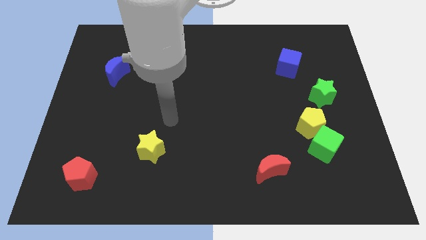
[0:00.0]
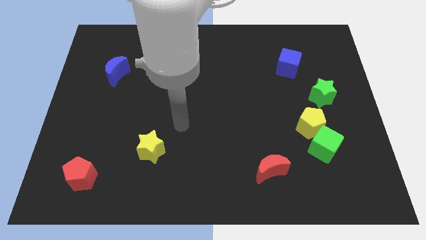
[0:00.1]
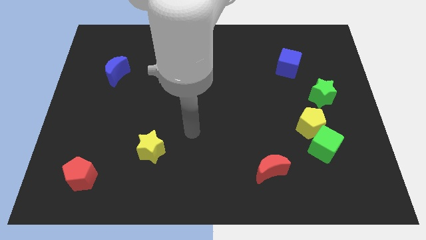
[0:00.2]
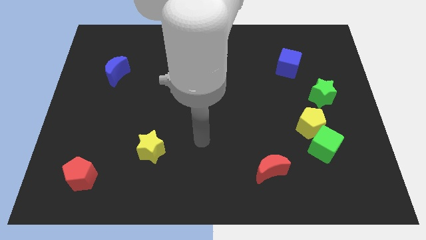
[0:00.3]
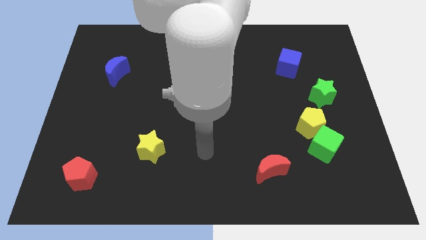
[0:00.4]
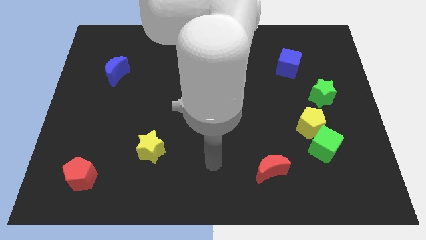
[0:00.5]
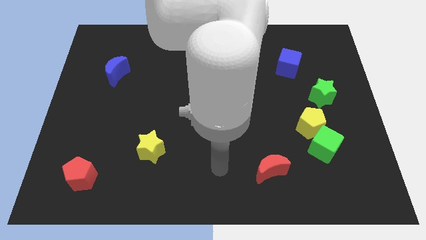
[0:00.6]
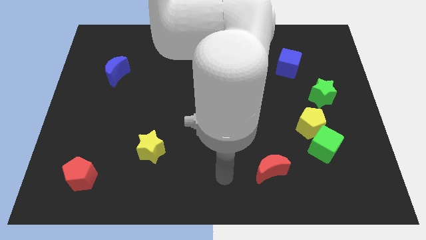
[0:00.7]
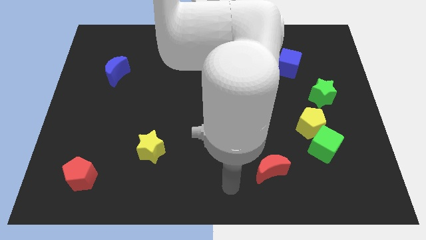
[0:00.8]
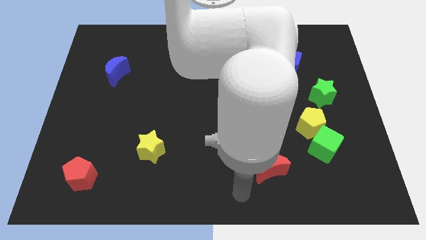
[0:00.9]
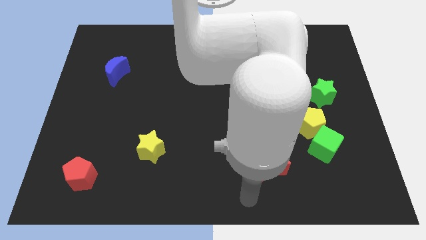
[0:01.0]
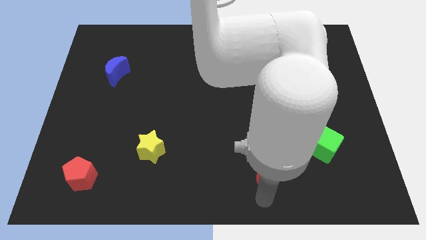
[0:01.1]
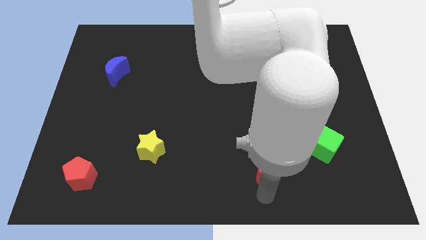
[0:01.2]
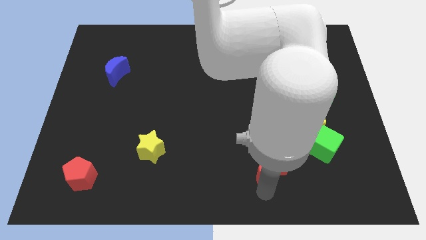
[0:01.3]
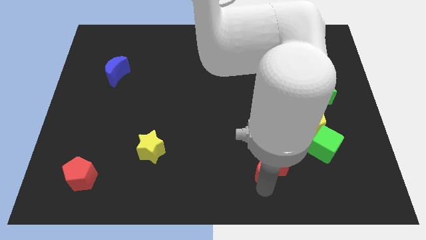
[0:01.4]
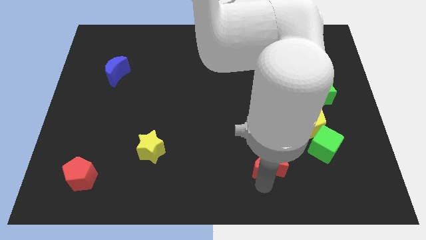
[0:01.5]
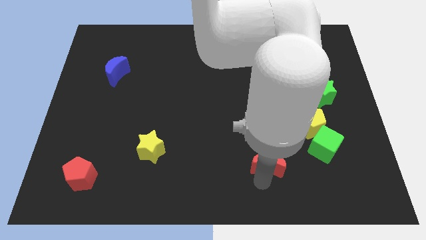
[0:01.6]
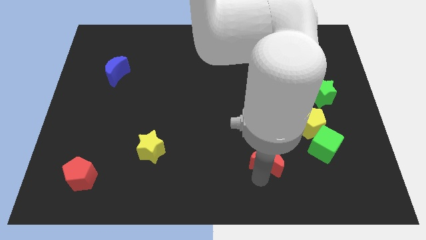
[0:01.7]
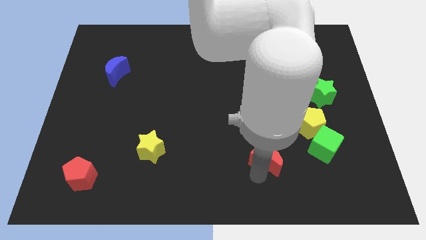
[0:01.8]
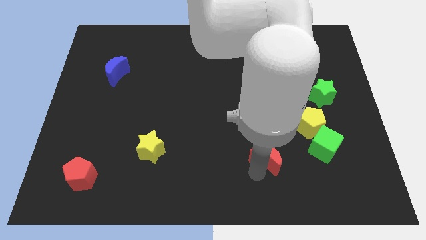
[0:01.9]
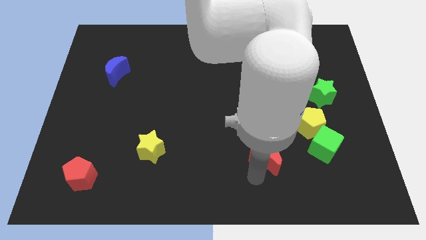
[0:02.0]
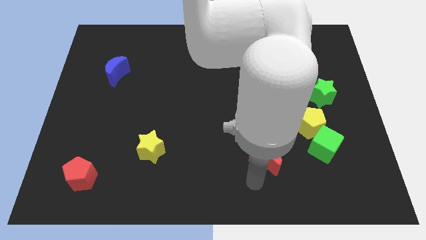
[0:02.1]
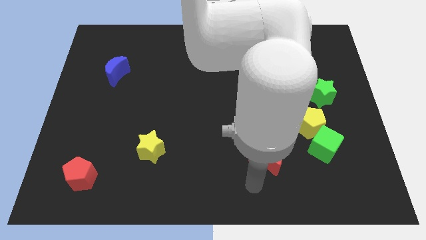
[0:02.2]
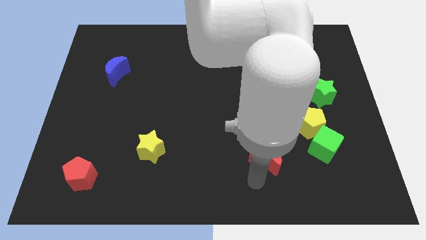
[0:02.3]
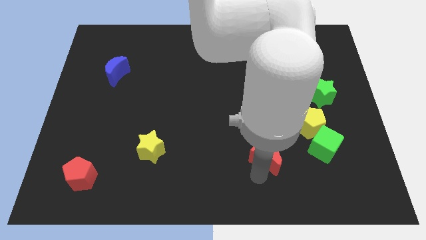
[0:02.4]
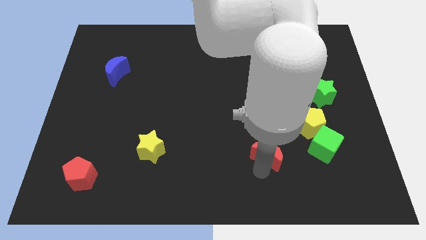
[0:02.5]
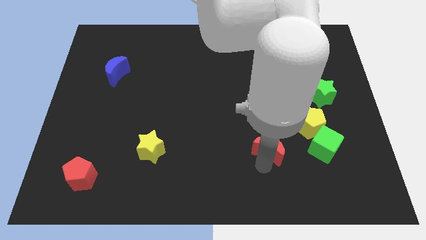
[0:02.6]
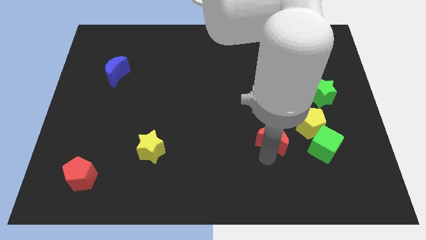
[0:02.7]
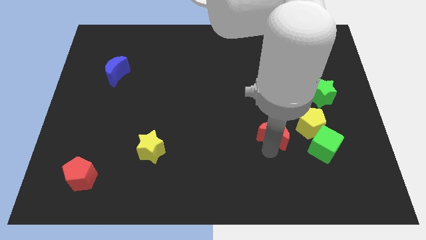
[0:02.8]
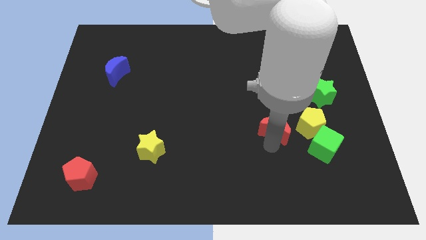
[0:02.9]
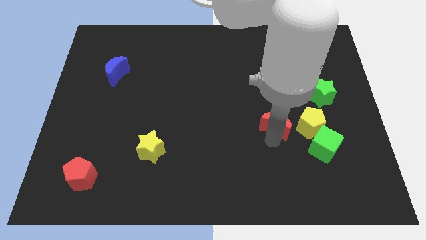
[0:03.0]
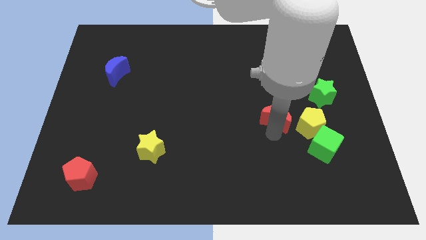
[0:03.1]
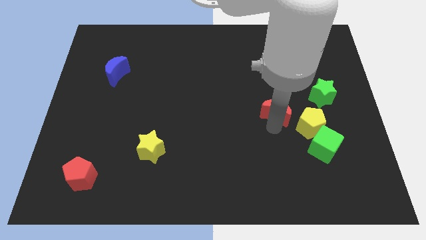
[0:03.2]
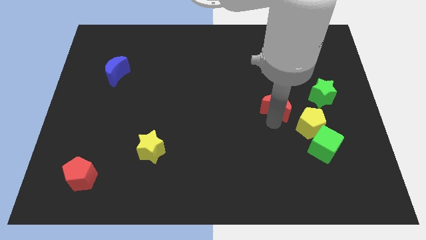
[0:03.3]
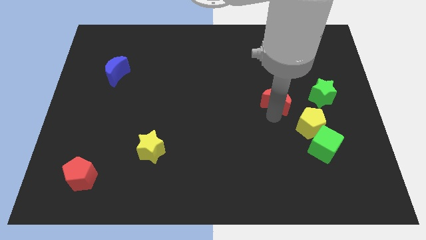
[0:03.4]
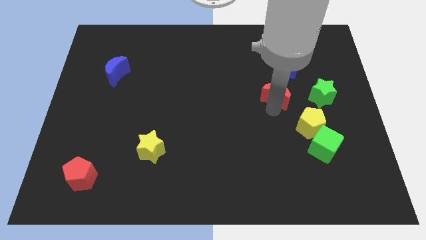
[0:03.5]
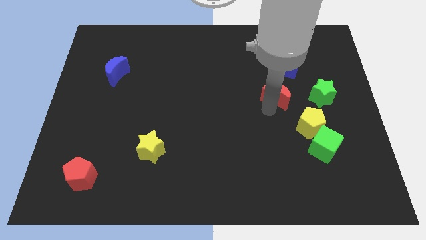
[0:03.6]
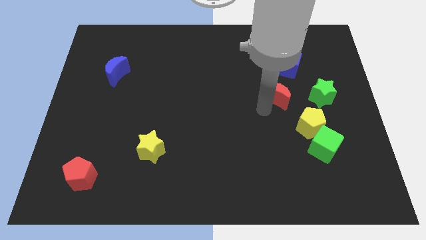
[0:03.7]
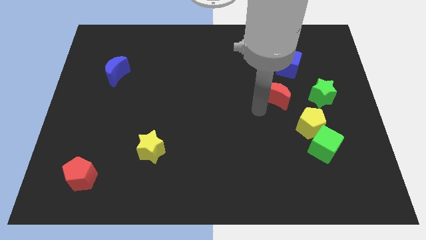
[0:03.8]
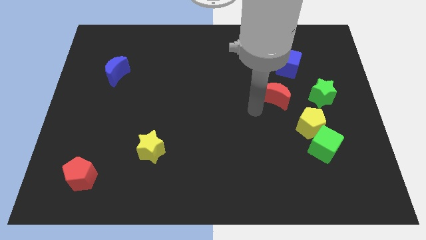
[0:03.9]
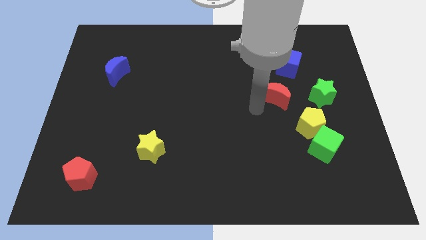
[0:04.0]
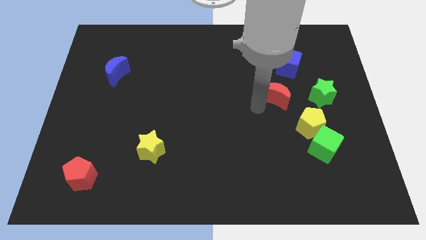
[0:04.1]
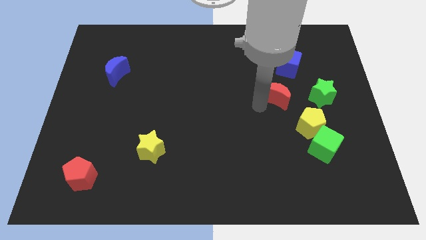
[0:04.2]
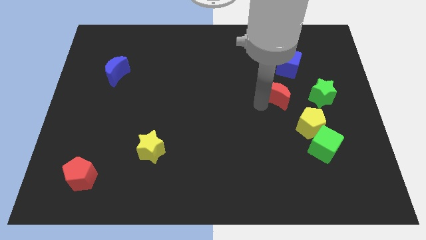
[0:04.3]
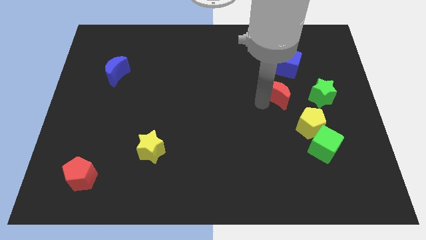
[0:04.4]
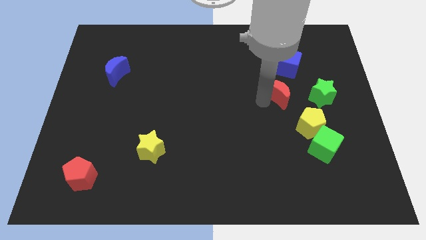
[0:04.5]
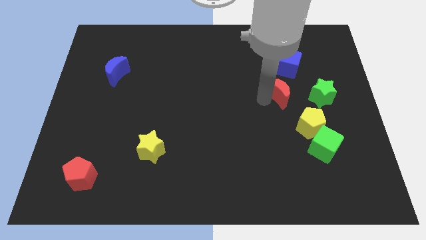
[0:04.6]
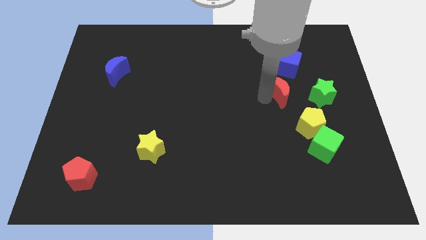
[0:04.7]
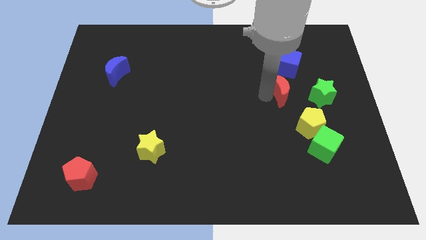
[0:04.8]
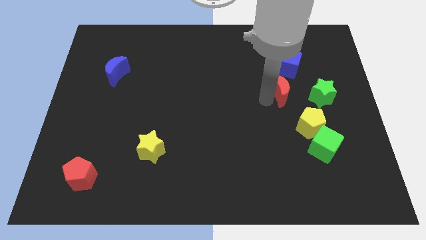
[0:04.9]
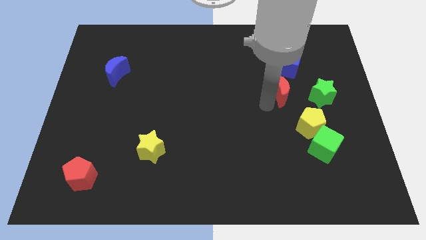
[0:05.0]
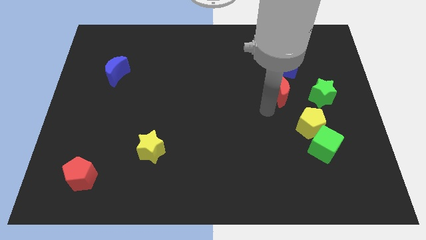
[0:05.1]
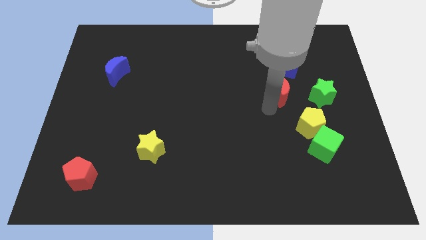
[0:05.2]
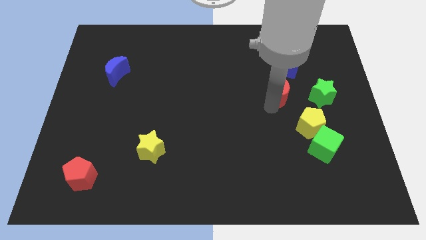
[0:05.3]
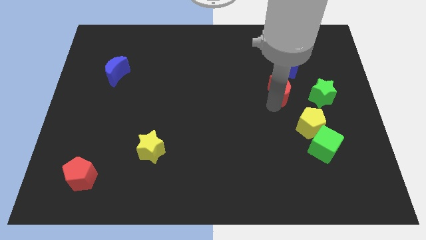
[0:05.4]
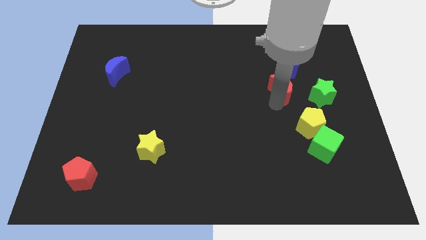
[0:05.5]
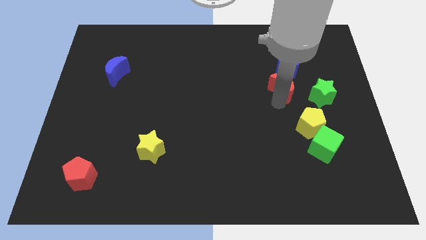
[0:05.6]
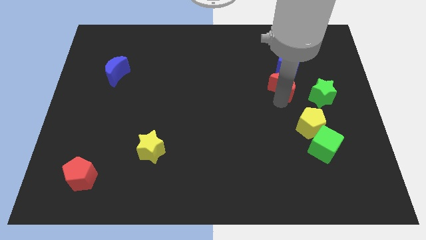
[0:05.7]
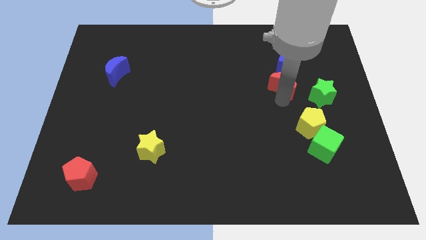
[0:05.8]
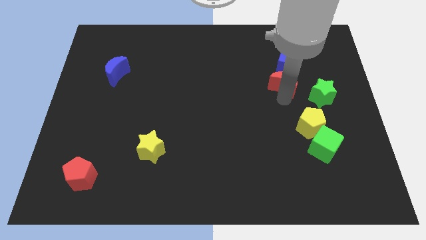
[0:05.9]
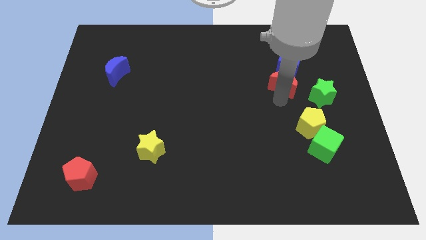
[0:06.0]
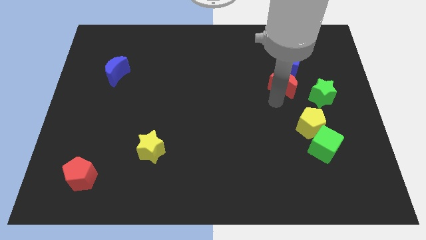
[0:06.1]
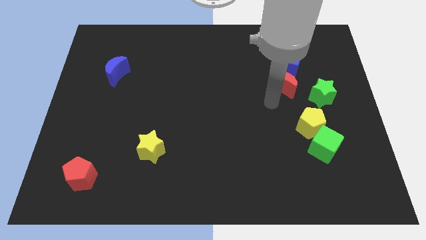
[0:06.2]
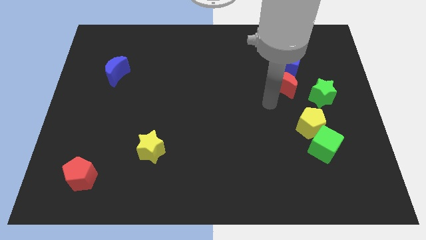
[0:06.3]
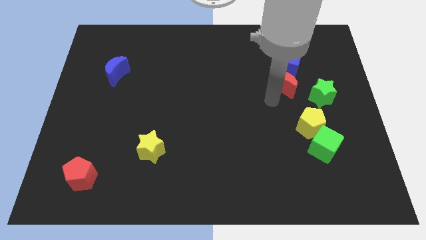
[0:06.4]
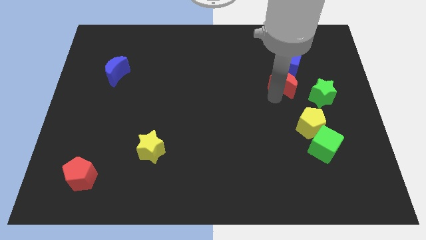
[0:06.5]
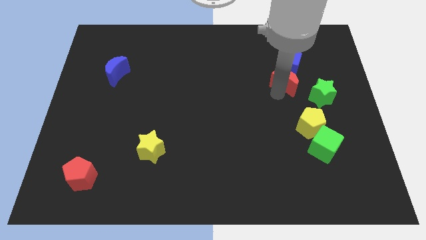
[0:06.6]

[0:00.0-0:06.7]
move the red moon close to the blue cube

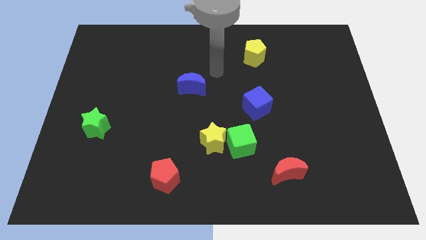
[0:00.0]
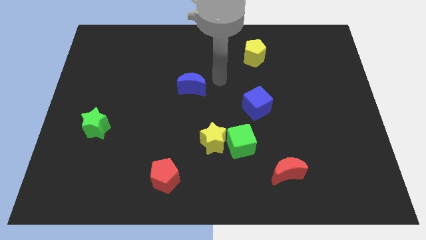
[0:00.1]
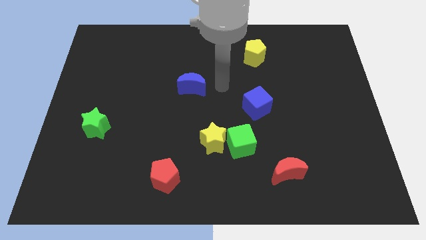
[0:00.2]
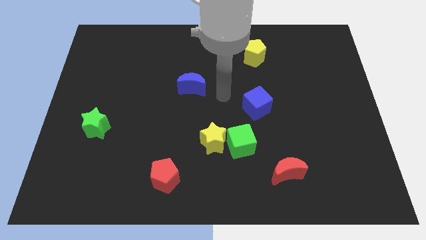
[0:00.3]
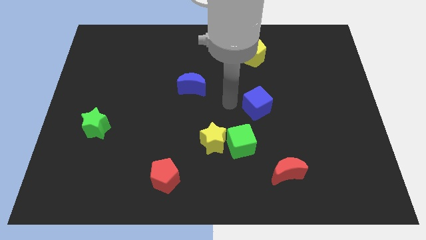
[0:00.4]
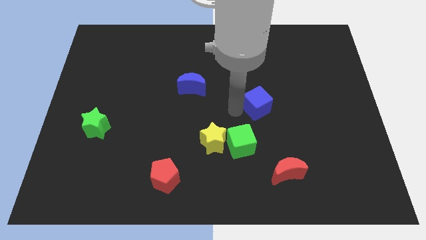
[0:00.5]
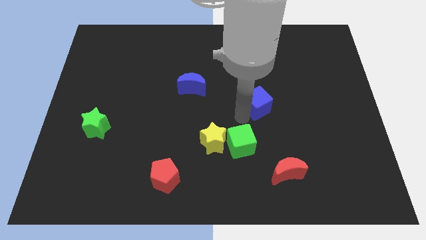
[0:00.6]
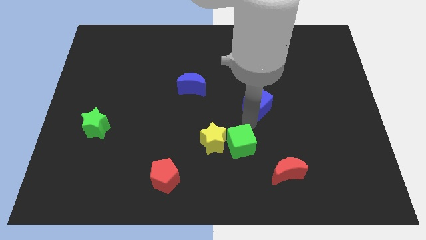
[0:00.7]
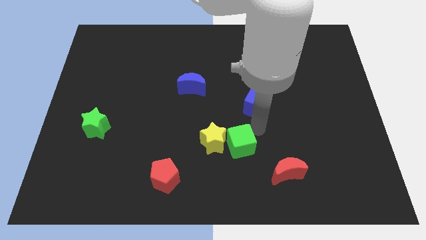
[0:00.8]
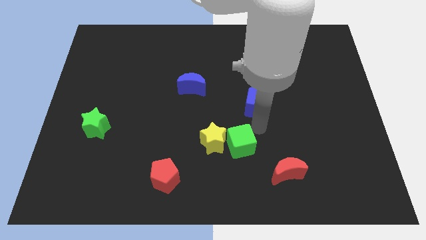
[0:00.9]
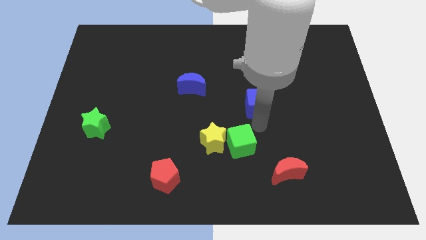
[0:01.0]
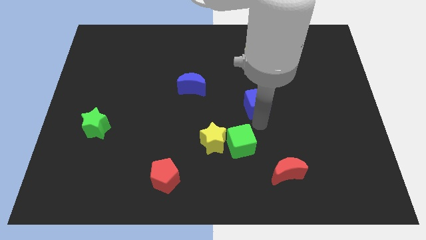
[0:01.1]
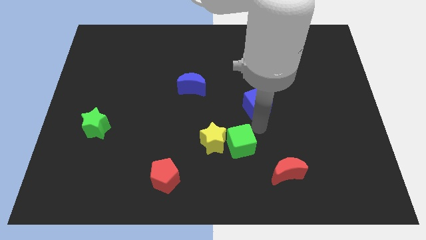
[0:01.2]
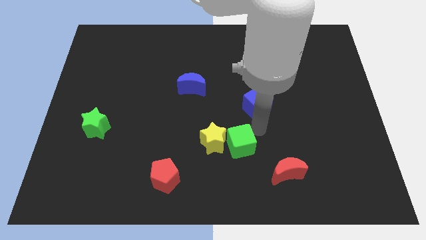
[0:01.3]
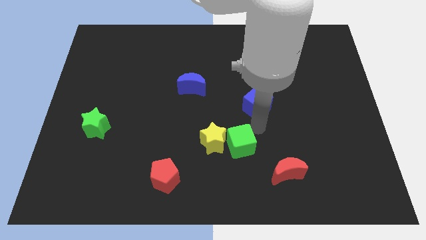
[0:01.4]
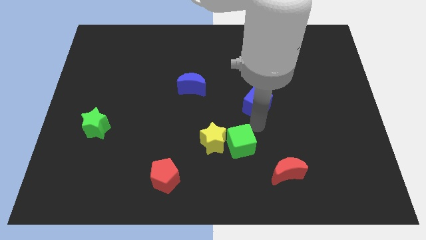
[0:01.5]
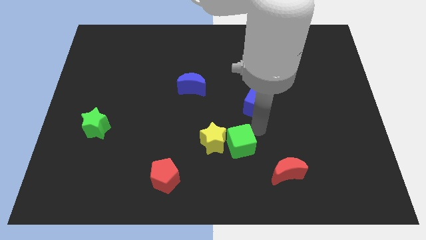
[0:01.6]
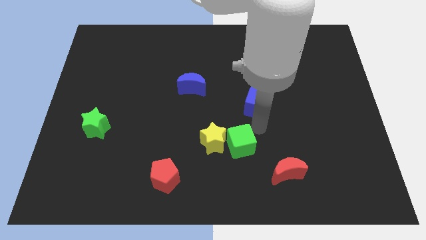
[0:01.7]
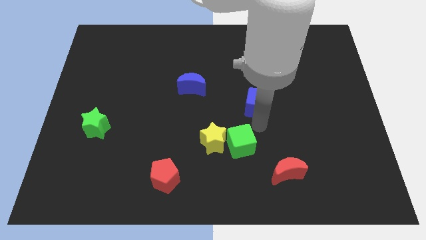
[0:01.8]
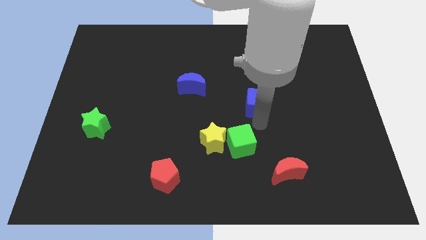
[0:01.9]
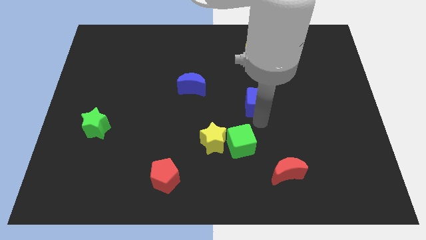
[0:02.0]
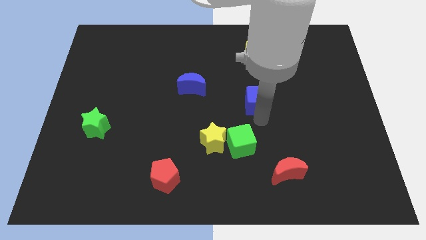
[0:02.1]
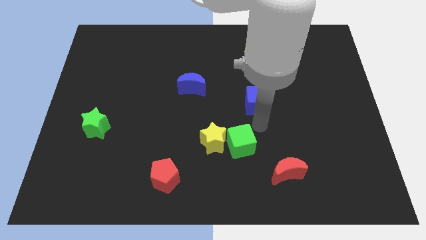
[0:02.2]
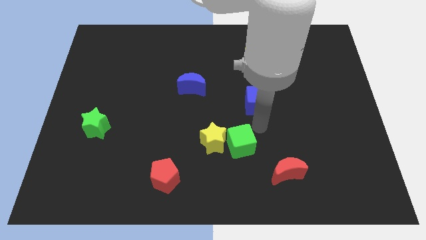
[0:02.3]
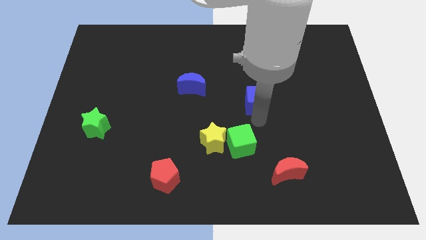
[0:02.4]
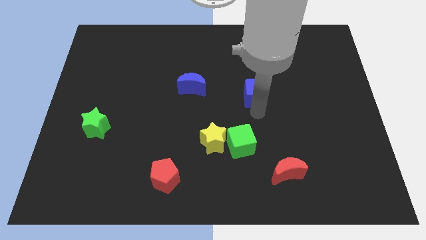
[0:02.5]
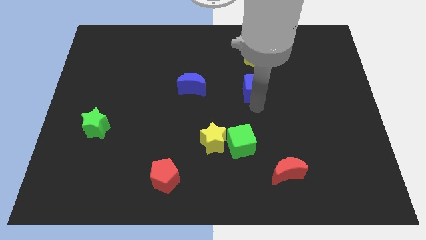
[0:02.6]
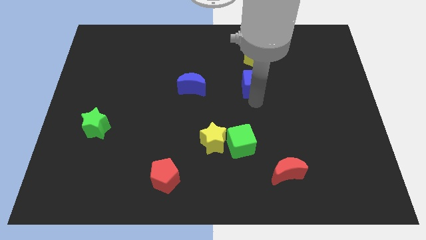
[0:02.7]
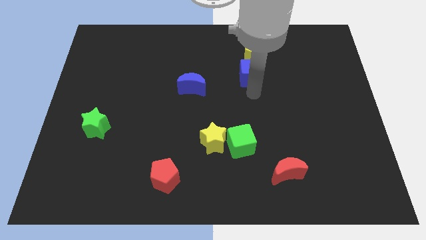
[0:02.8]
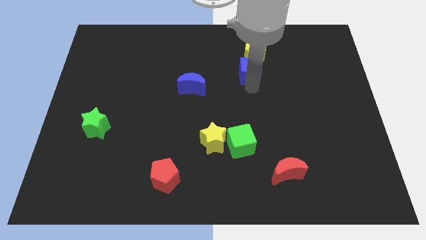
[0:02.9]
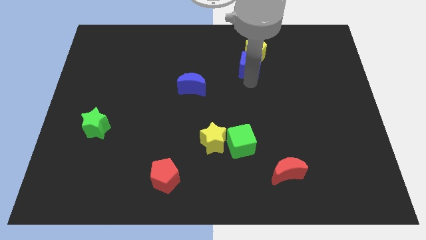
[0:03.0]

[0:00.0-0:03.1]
push the blue cube next to the yellow pentagon
